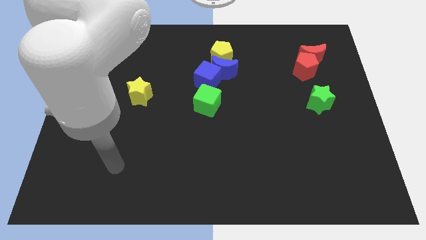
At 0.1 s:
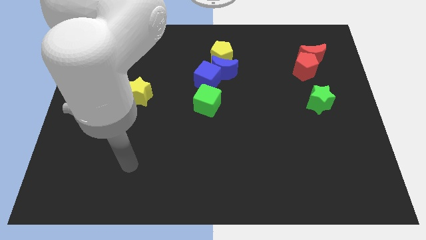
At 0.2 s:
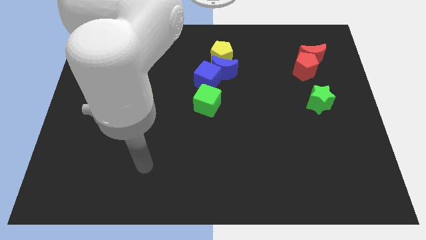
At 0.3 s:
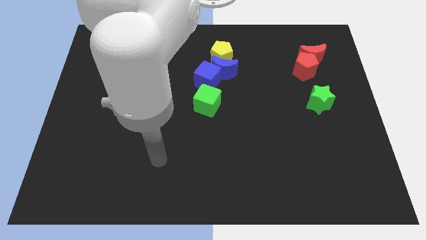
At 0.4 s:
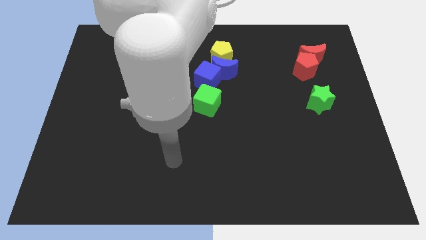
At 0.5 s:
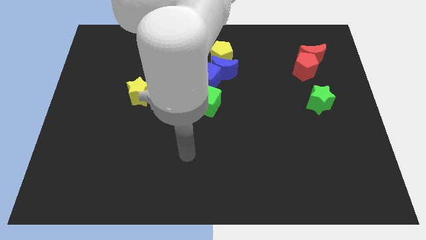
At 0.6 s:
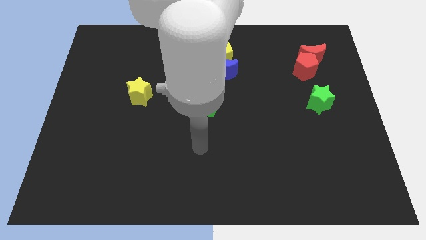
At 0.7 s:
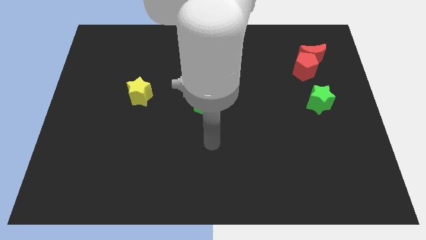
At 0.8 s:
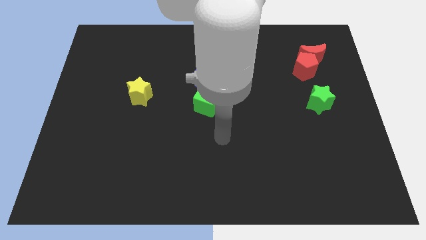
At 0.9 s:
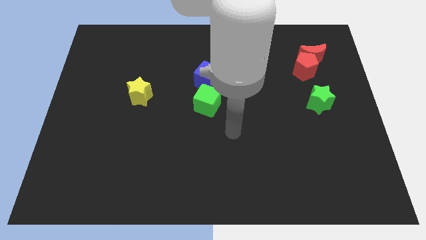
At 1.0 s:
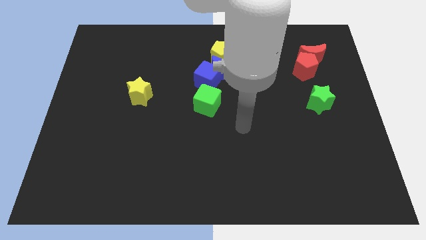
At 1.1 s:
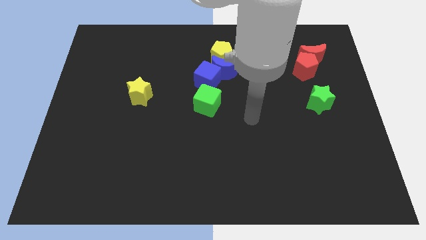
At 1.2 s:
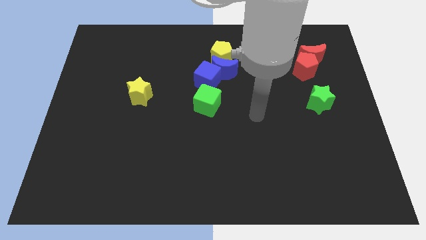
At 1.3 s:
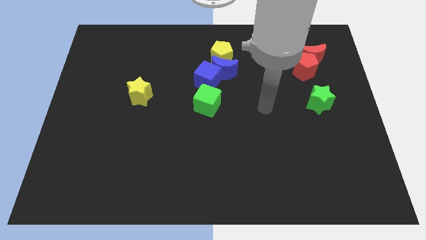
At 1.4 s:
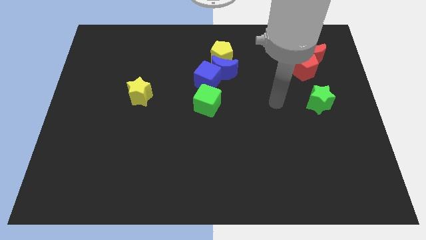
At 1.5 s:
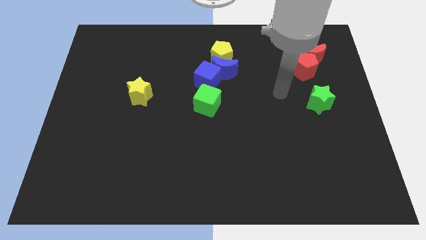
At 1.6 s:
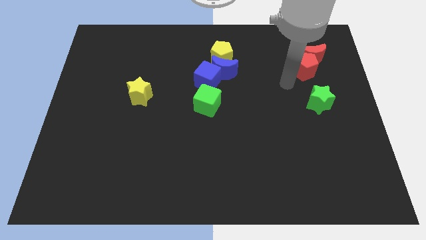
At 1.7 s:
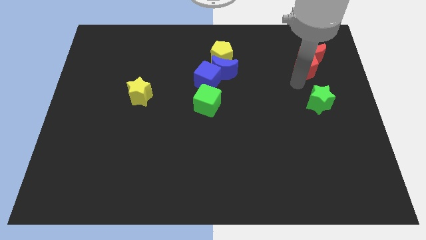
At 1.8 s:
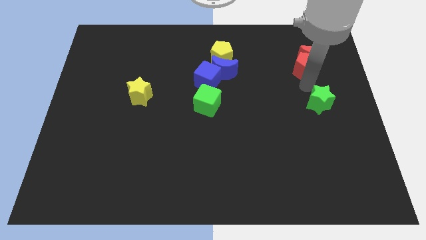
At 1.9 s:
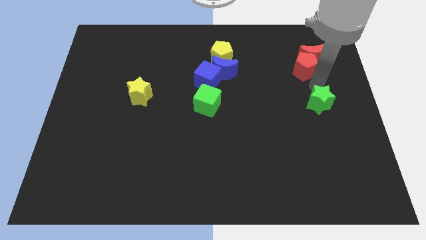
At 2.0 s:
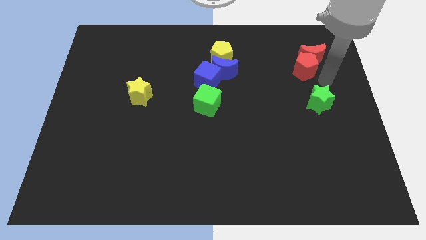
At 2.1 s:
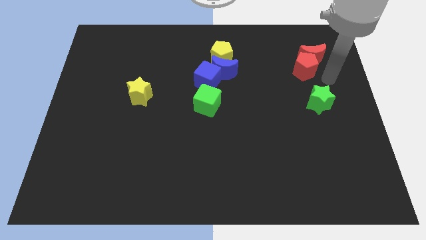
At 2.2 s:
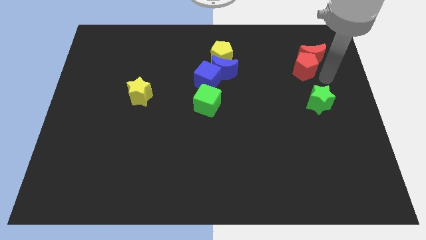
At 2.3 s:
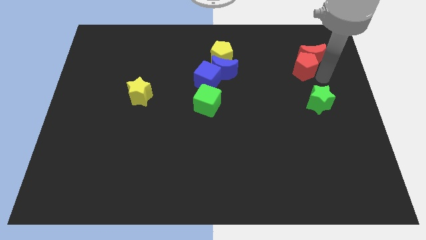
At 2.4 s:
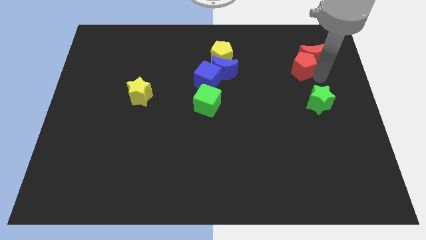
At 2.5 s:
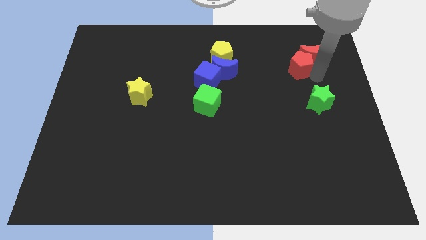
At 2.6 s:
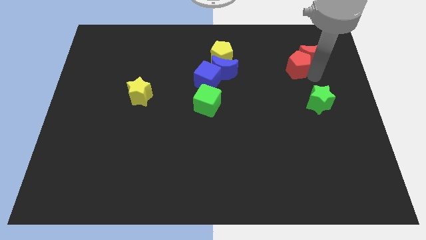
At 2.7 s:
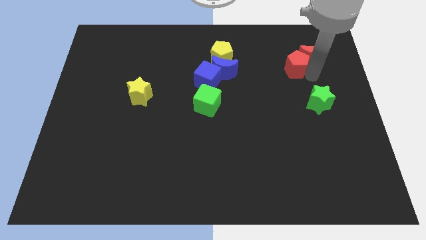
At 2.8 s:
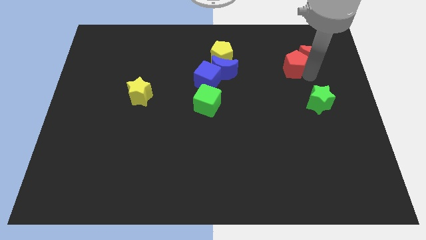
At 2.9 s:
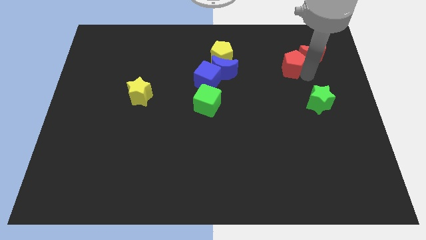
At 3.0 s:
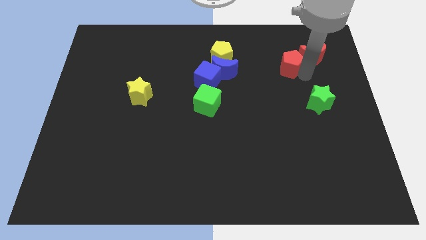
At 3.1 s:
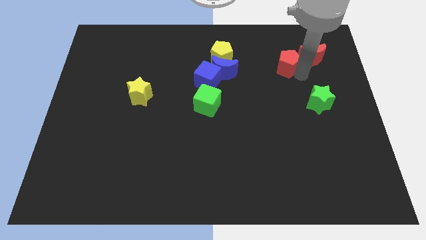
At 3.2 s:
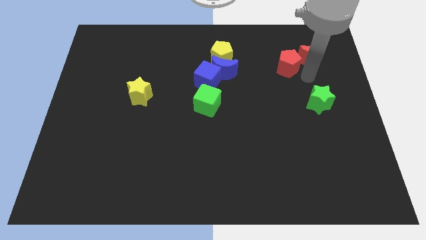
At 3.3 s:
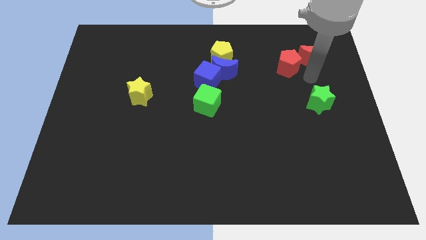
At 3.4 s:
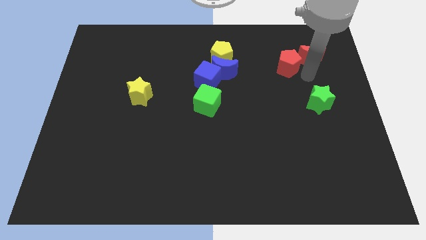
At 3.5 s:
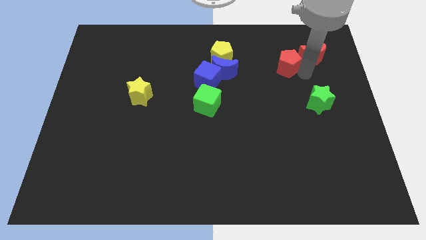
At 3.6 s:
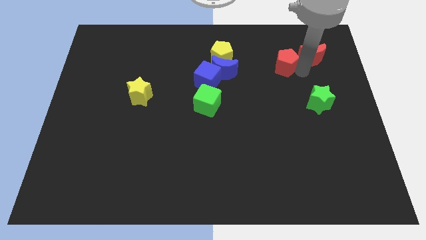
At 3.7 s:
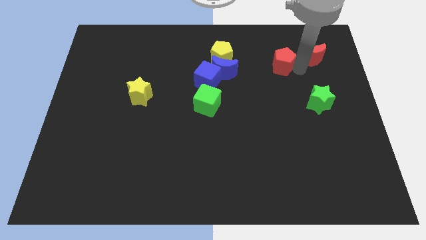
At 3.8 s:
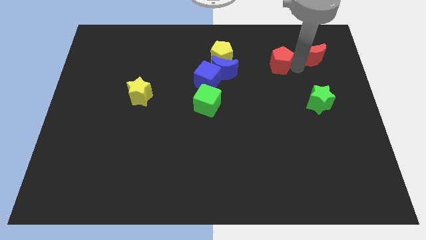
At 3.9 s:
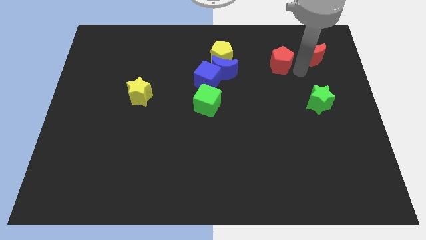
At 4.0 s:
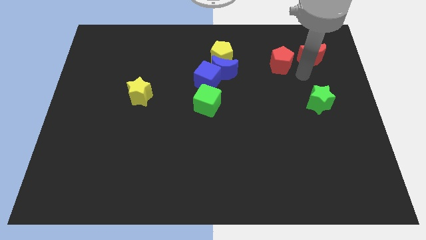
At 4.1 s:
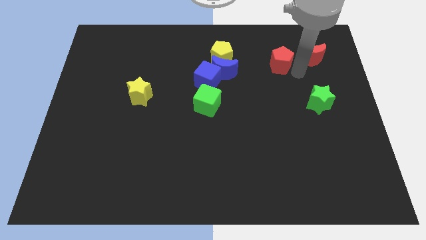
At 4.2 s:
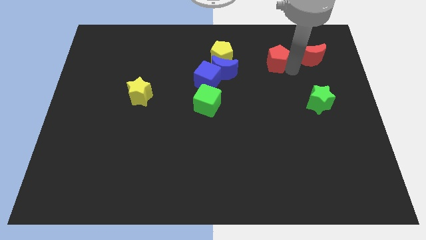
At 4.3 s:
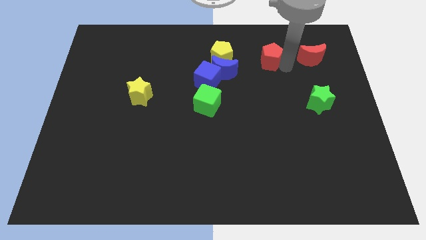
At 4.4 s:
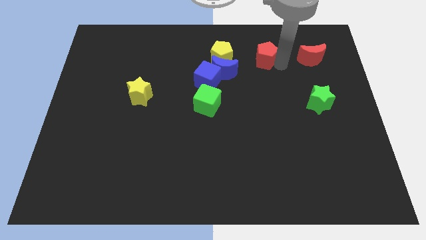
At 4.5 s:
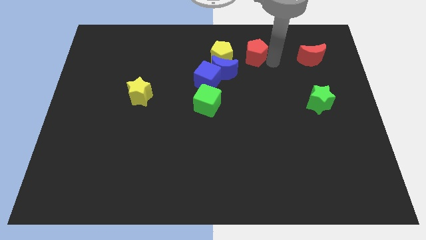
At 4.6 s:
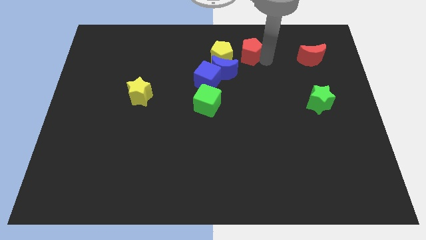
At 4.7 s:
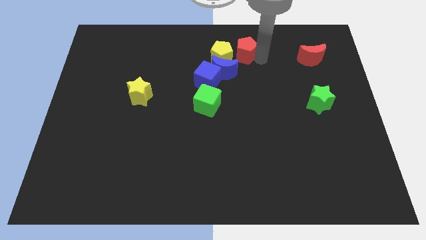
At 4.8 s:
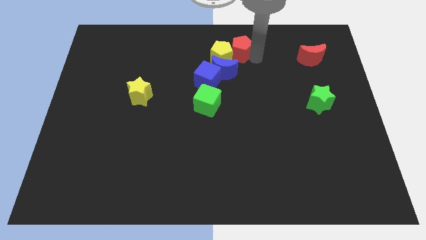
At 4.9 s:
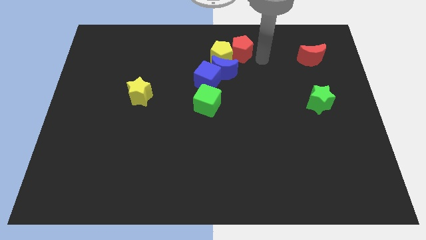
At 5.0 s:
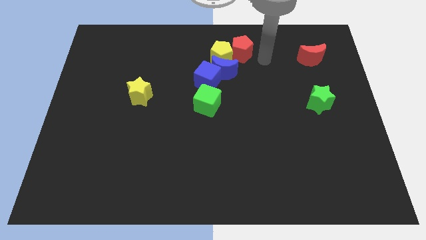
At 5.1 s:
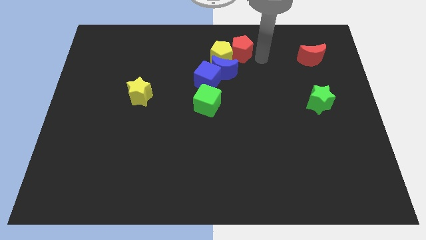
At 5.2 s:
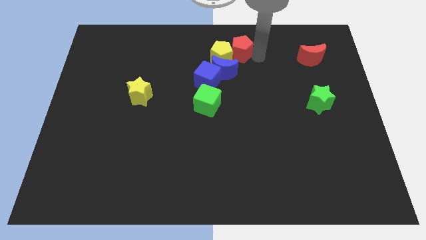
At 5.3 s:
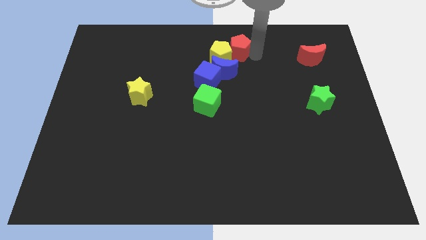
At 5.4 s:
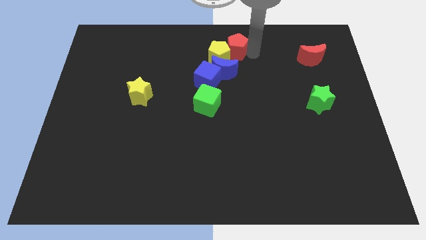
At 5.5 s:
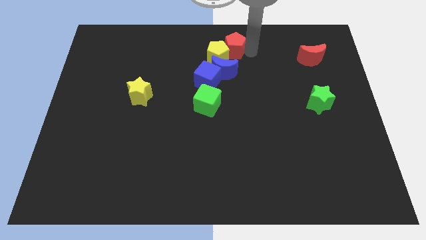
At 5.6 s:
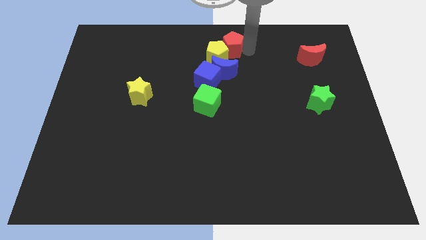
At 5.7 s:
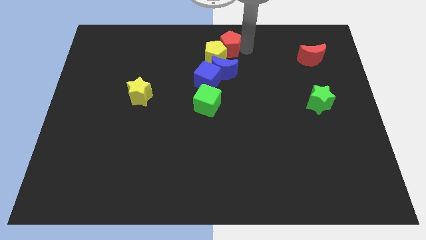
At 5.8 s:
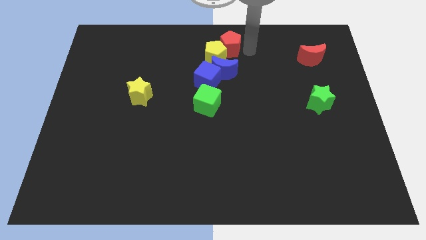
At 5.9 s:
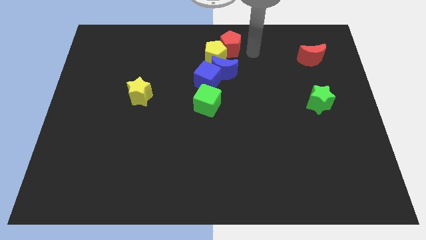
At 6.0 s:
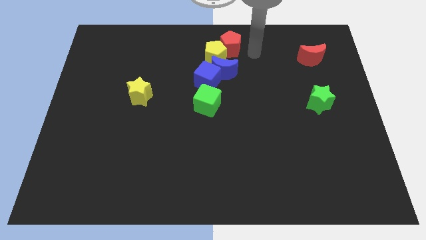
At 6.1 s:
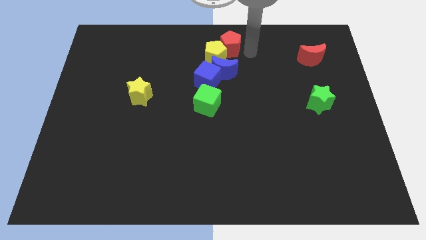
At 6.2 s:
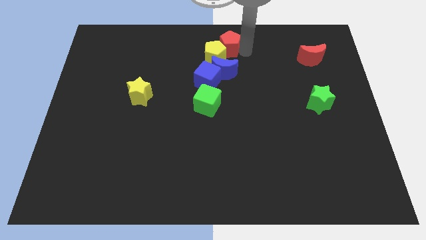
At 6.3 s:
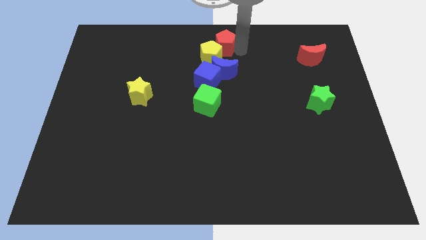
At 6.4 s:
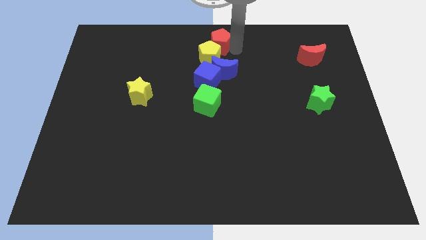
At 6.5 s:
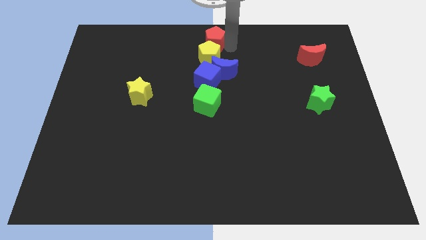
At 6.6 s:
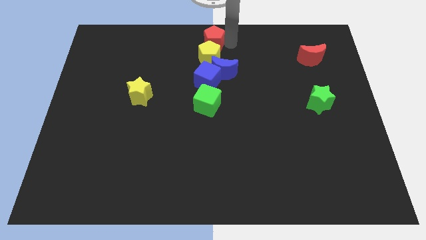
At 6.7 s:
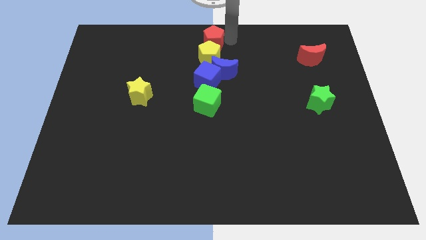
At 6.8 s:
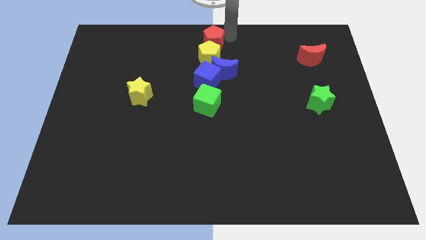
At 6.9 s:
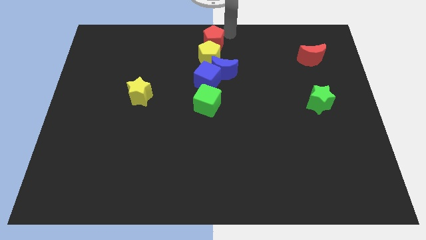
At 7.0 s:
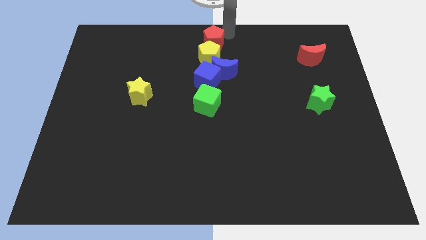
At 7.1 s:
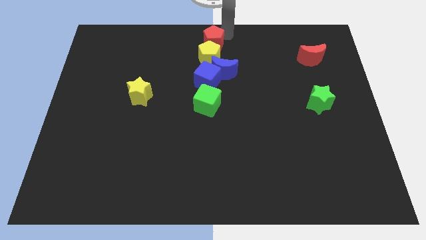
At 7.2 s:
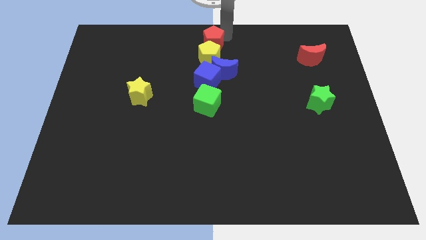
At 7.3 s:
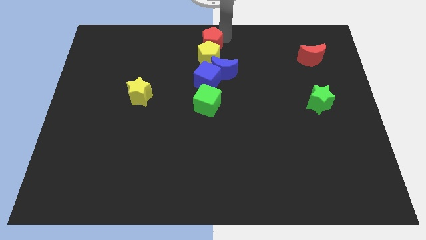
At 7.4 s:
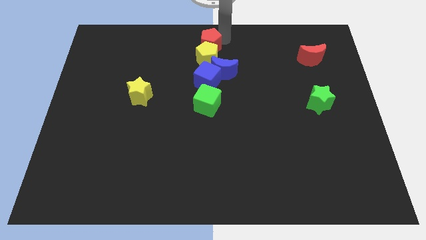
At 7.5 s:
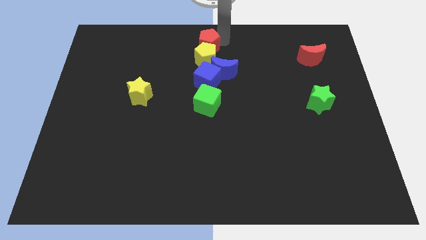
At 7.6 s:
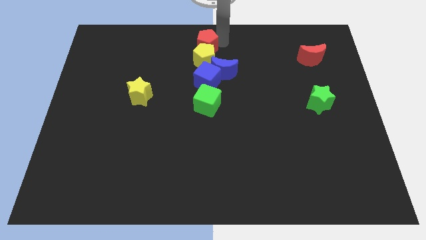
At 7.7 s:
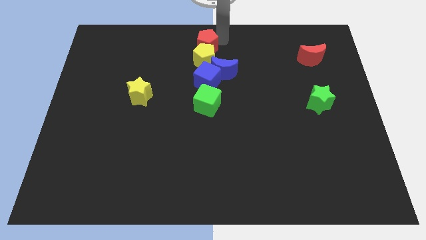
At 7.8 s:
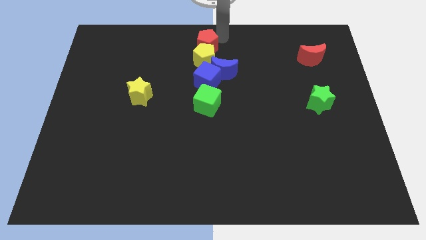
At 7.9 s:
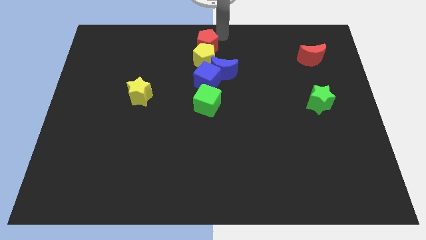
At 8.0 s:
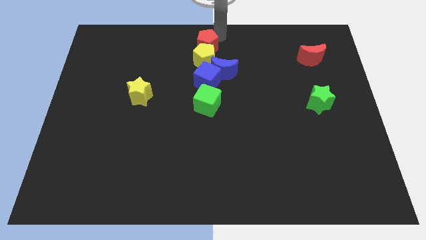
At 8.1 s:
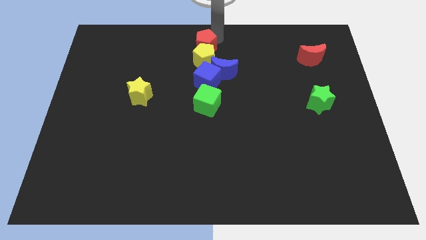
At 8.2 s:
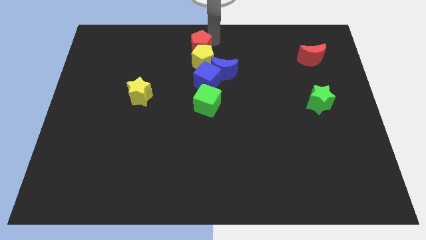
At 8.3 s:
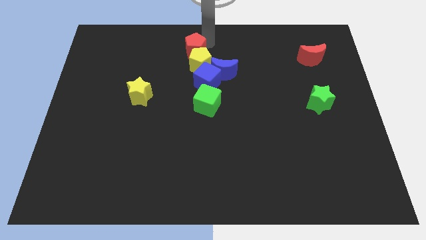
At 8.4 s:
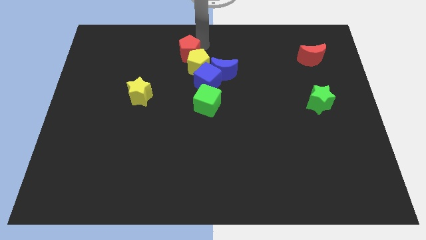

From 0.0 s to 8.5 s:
move the red pentagon diagonally up and to the left of the blue cube
